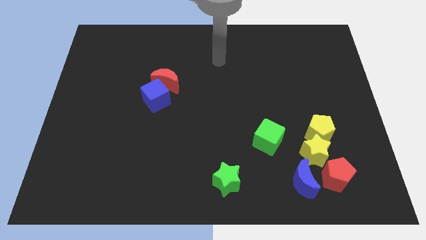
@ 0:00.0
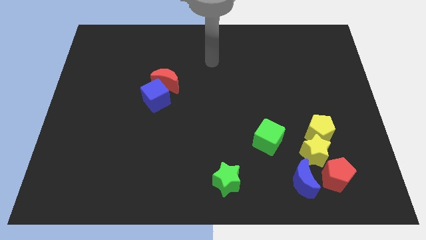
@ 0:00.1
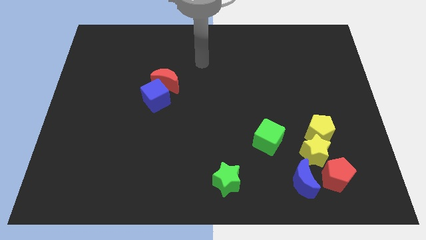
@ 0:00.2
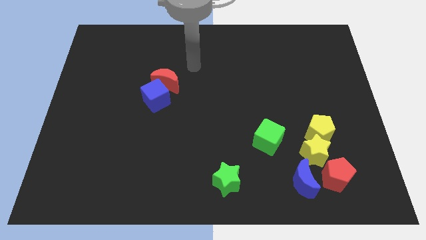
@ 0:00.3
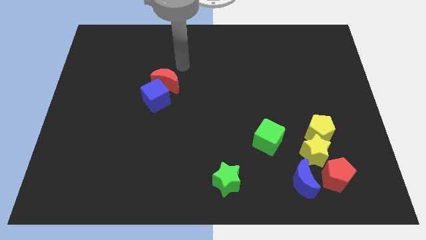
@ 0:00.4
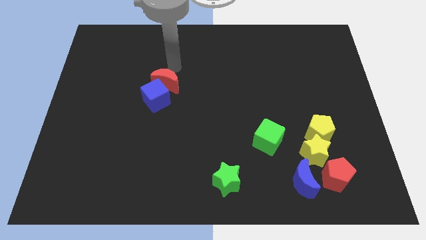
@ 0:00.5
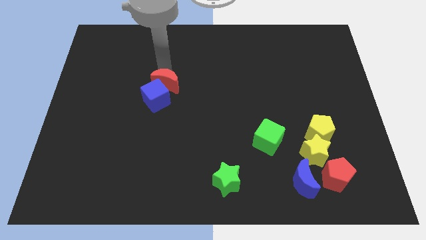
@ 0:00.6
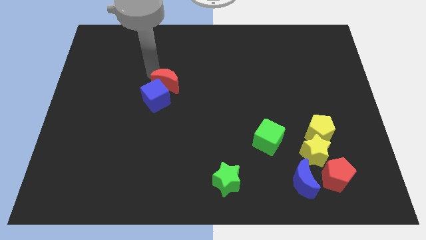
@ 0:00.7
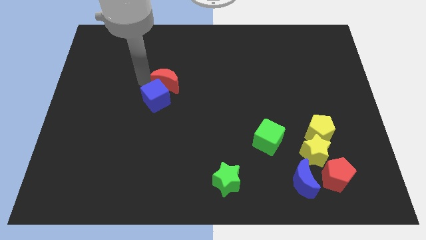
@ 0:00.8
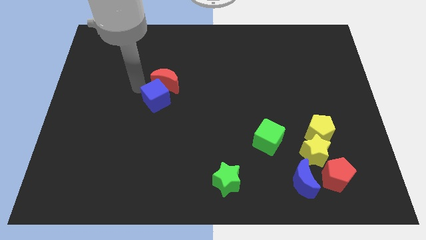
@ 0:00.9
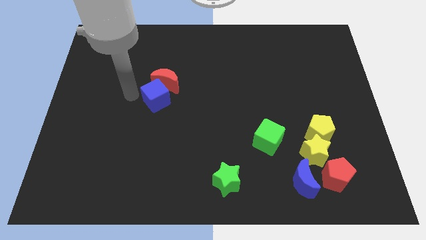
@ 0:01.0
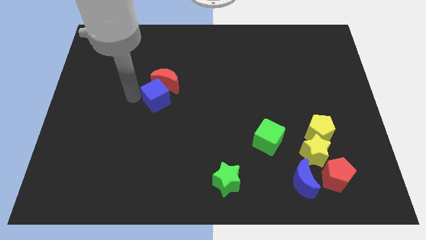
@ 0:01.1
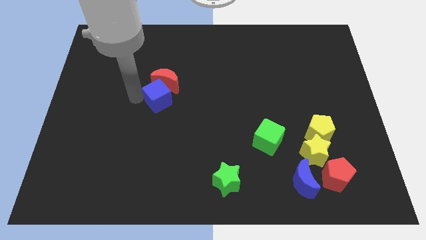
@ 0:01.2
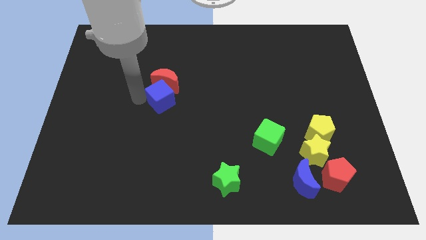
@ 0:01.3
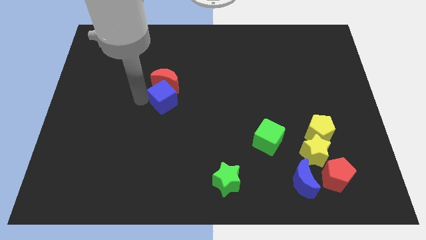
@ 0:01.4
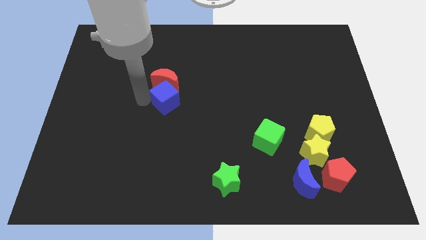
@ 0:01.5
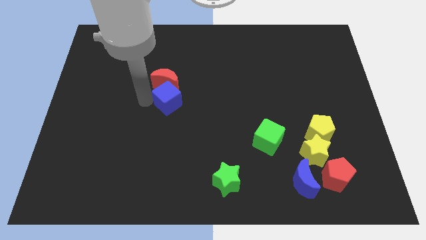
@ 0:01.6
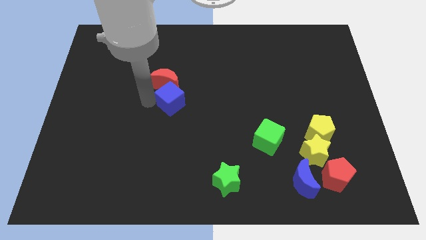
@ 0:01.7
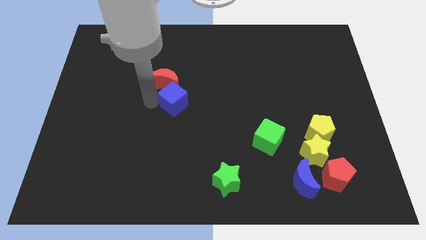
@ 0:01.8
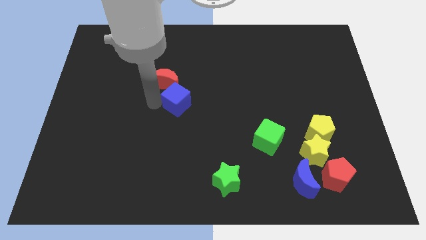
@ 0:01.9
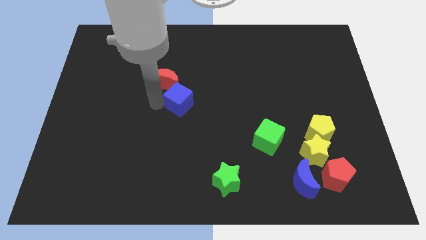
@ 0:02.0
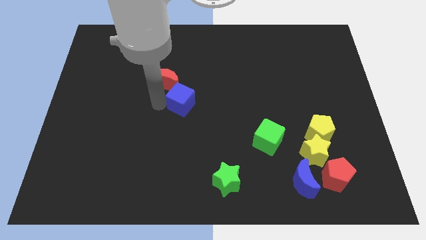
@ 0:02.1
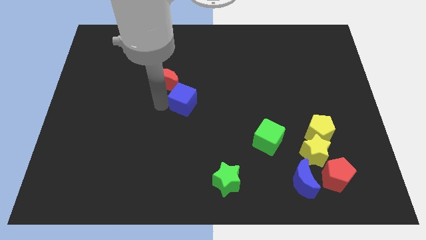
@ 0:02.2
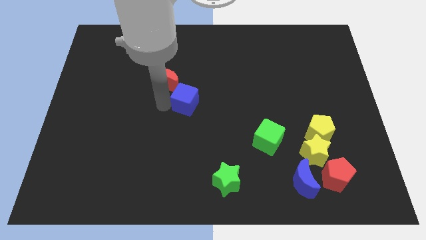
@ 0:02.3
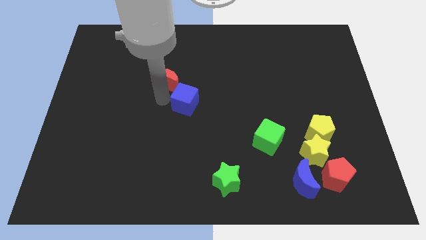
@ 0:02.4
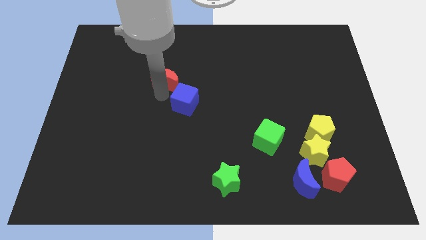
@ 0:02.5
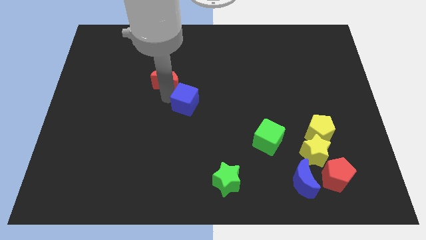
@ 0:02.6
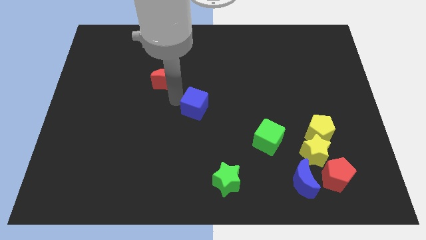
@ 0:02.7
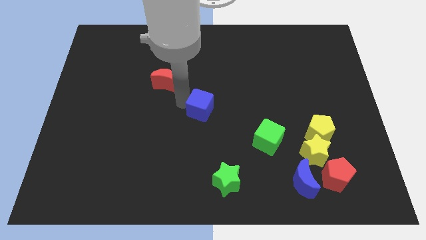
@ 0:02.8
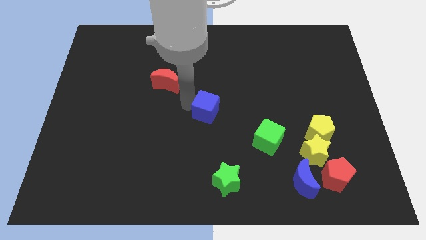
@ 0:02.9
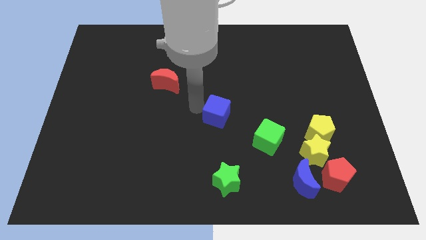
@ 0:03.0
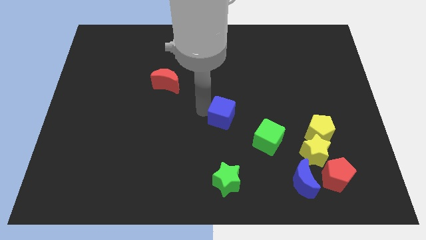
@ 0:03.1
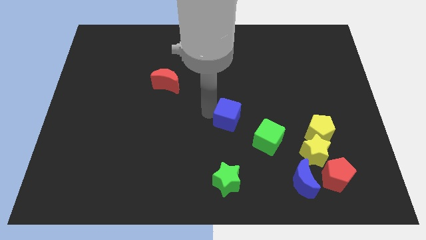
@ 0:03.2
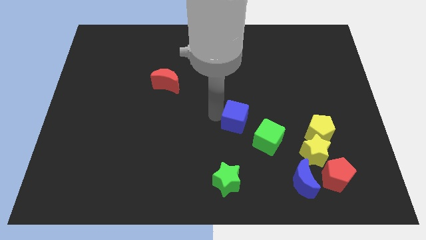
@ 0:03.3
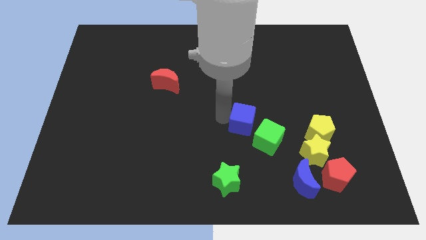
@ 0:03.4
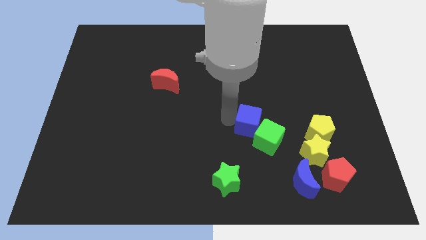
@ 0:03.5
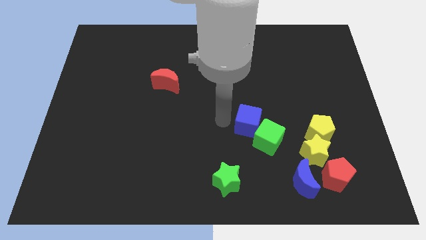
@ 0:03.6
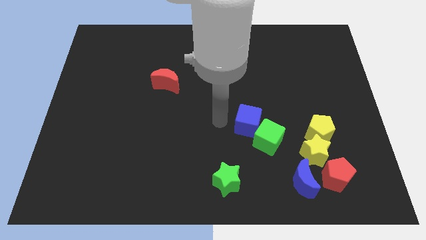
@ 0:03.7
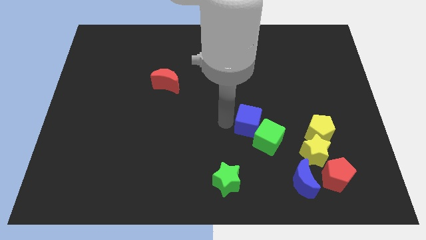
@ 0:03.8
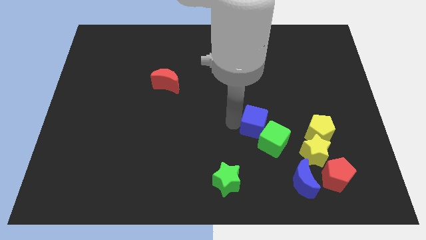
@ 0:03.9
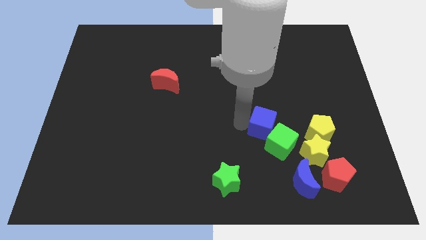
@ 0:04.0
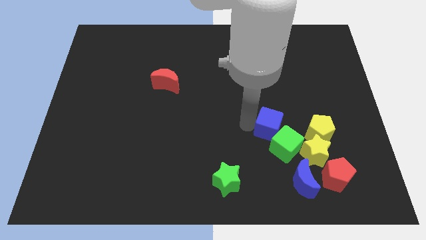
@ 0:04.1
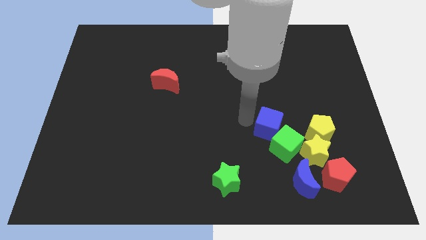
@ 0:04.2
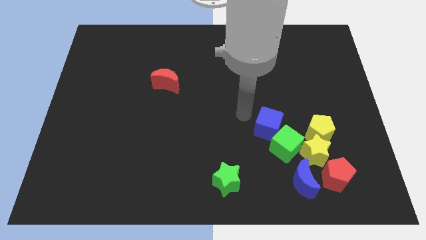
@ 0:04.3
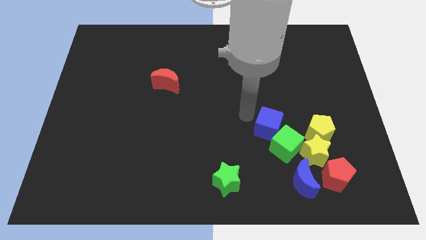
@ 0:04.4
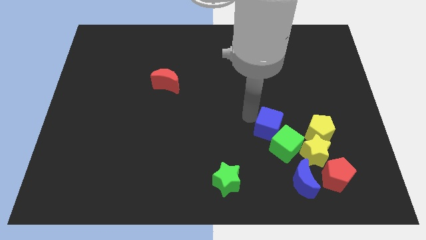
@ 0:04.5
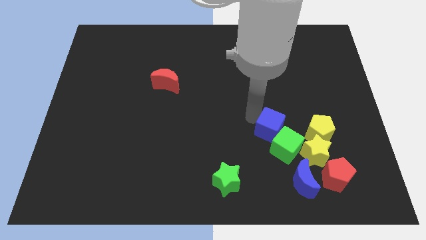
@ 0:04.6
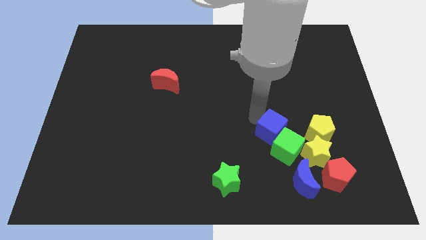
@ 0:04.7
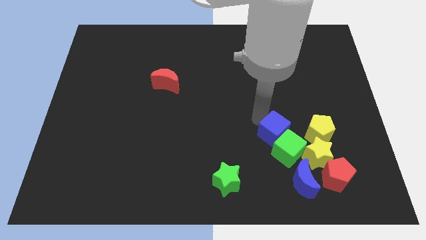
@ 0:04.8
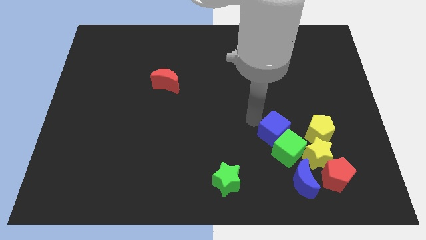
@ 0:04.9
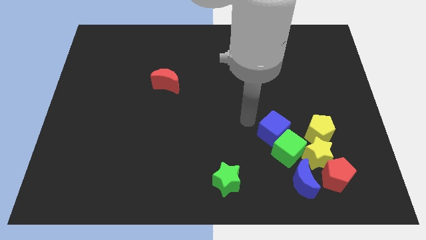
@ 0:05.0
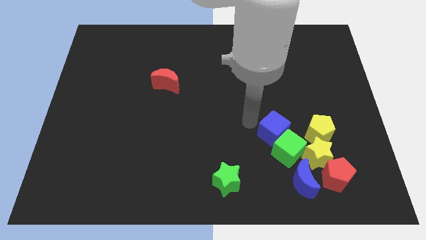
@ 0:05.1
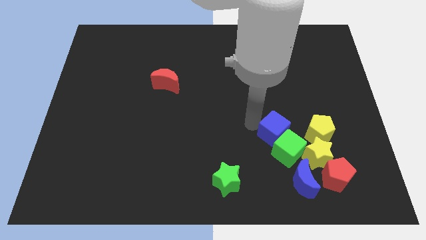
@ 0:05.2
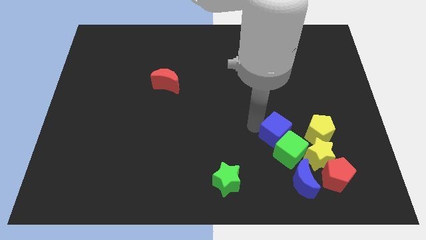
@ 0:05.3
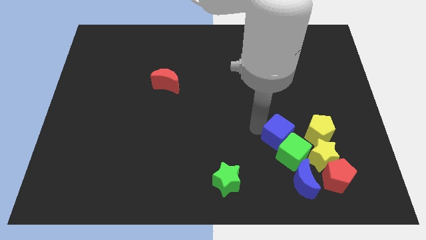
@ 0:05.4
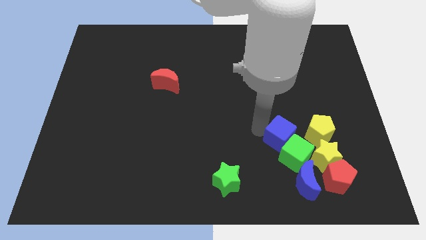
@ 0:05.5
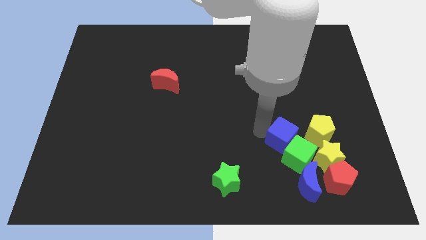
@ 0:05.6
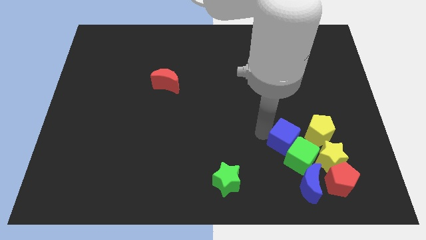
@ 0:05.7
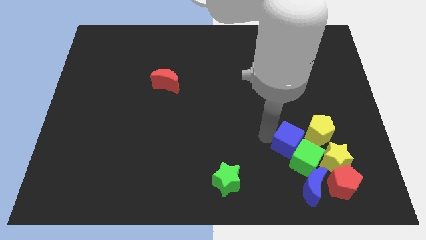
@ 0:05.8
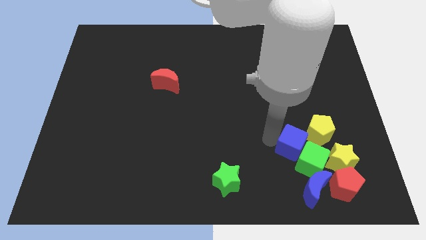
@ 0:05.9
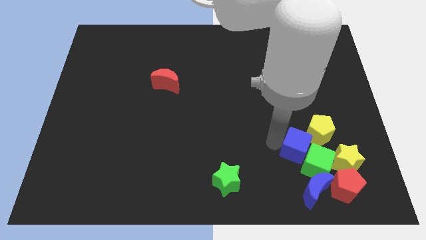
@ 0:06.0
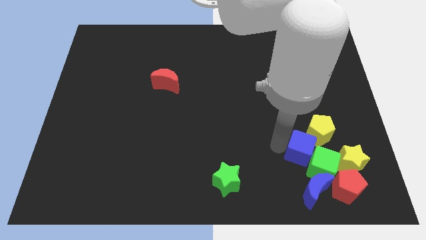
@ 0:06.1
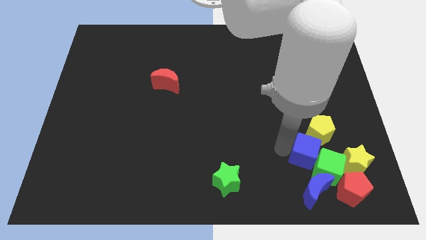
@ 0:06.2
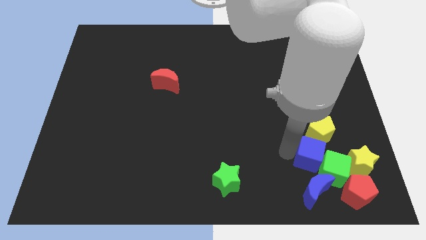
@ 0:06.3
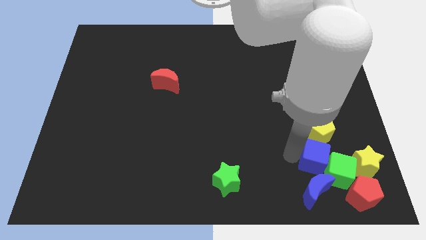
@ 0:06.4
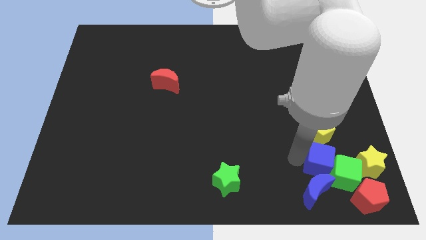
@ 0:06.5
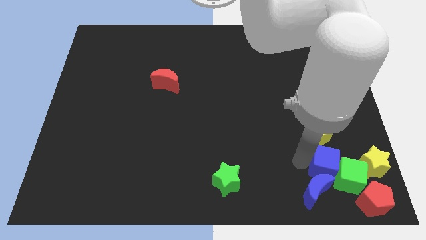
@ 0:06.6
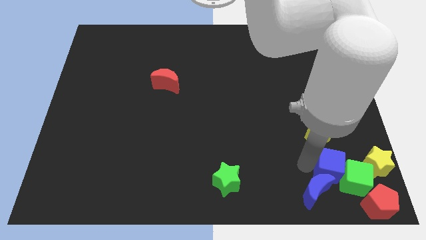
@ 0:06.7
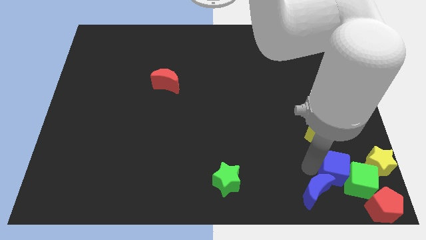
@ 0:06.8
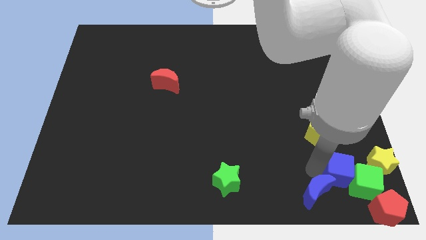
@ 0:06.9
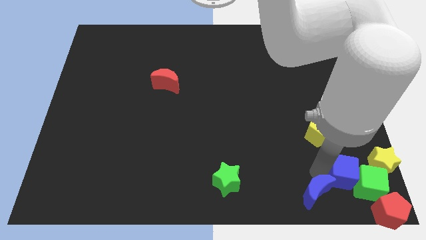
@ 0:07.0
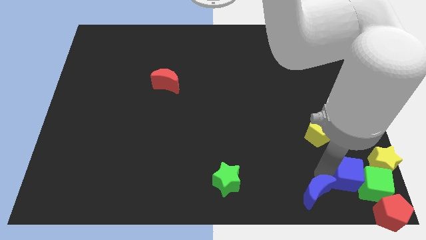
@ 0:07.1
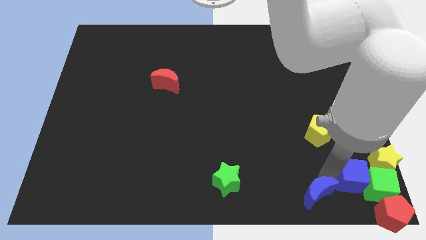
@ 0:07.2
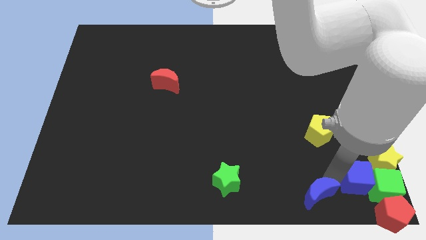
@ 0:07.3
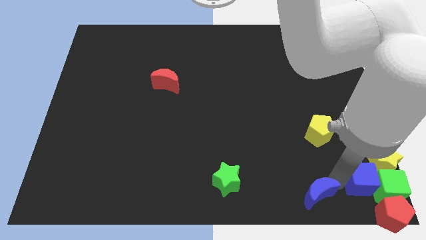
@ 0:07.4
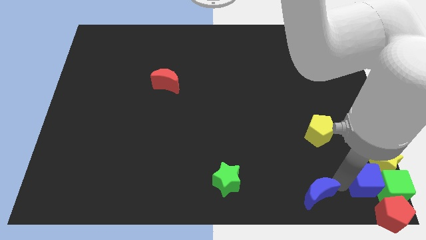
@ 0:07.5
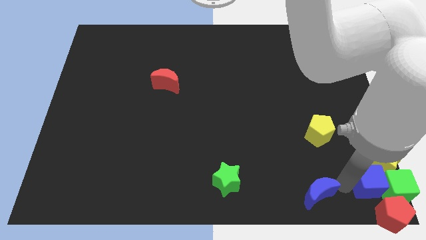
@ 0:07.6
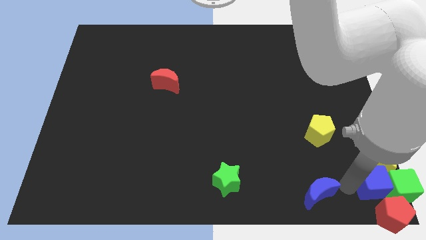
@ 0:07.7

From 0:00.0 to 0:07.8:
push the blue cube next to the yellow star
